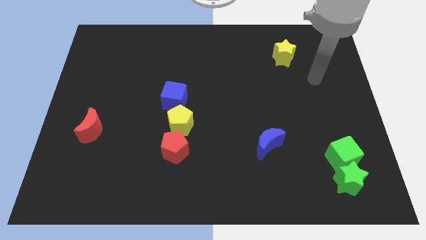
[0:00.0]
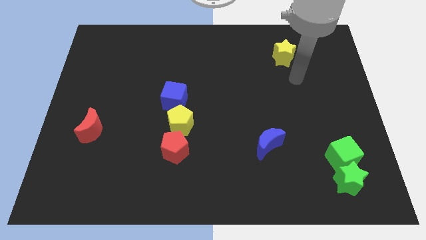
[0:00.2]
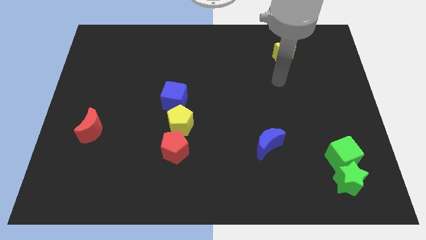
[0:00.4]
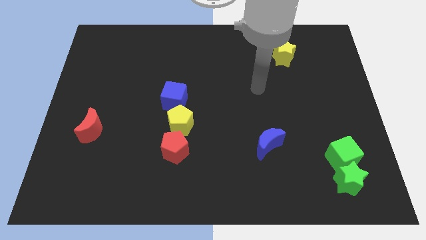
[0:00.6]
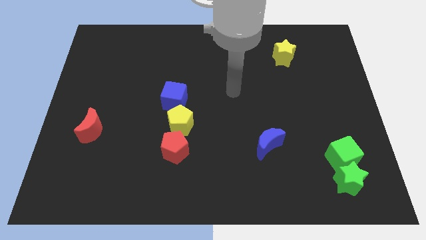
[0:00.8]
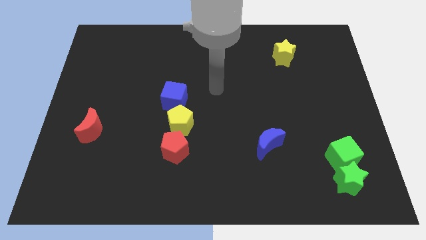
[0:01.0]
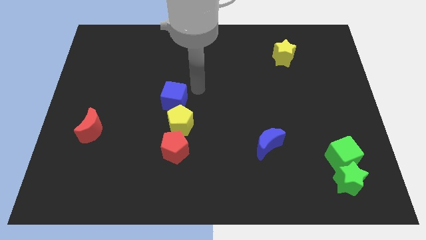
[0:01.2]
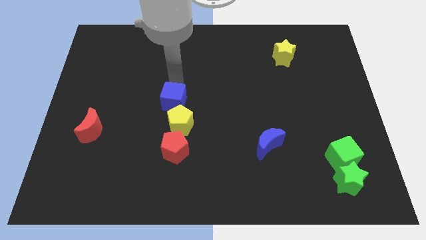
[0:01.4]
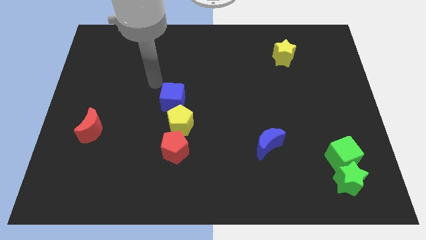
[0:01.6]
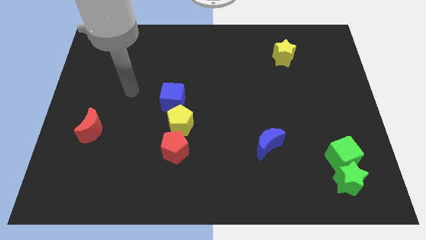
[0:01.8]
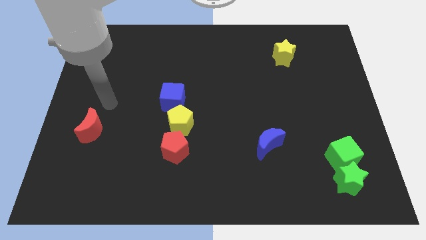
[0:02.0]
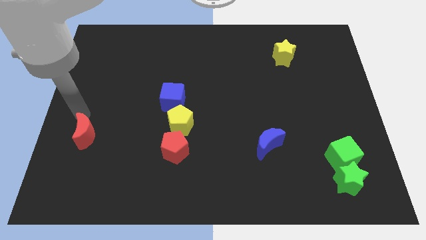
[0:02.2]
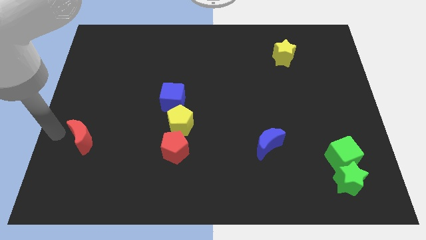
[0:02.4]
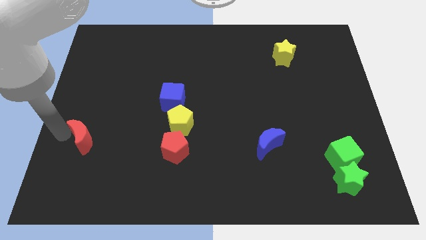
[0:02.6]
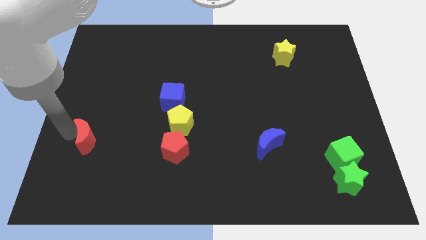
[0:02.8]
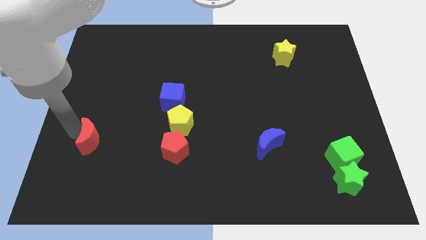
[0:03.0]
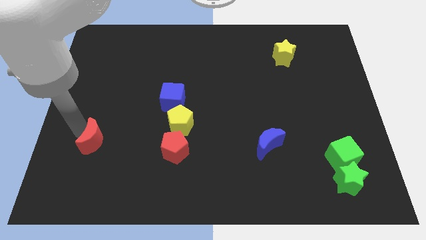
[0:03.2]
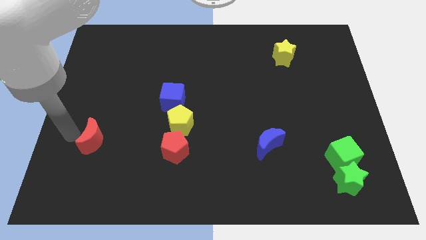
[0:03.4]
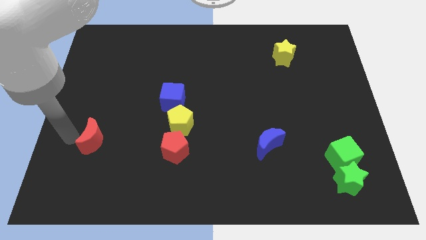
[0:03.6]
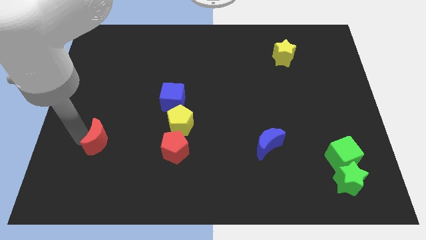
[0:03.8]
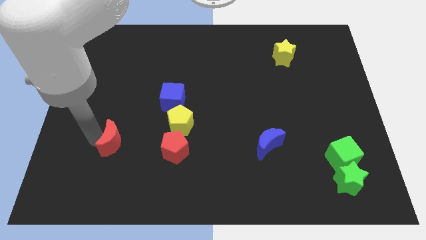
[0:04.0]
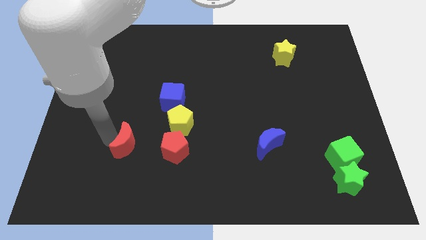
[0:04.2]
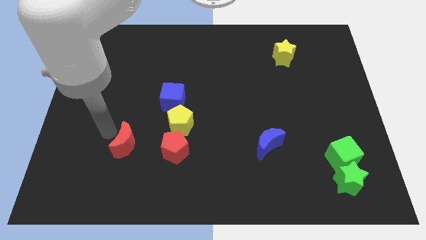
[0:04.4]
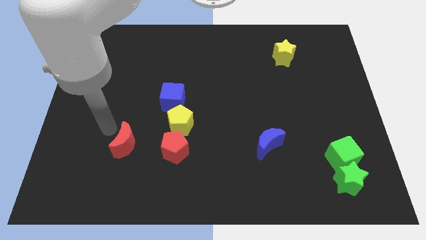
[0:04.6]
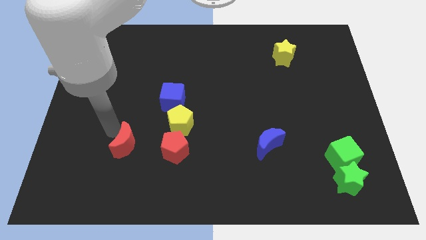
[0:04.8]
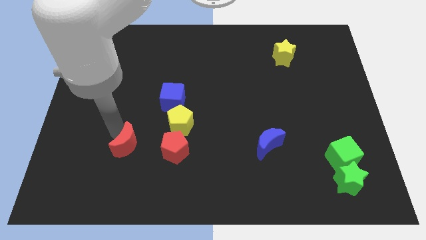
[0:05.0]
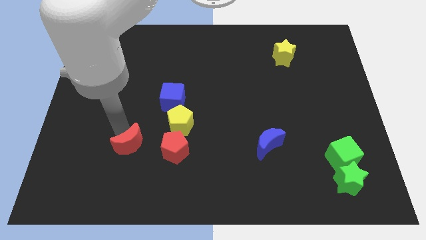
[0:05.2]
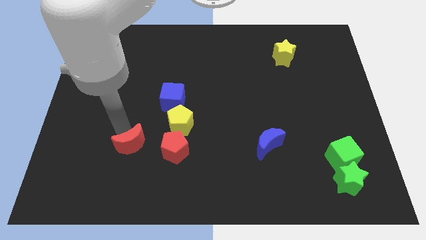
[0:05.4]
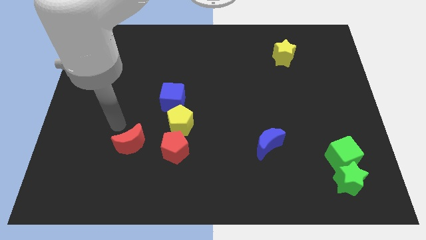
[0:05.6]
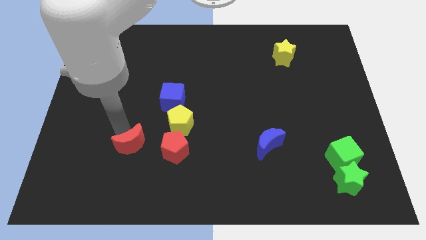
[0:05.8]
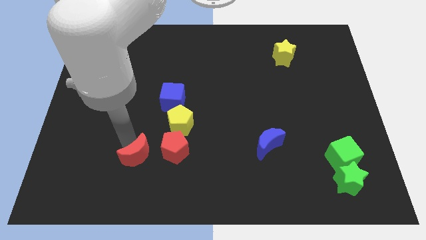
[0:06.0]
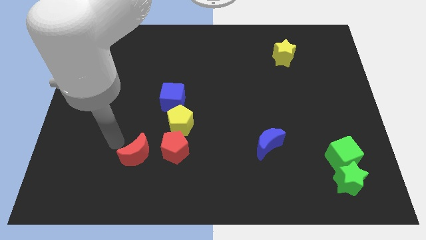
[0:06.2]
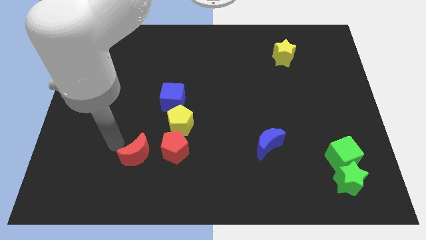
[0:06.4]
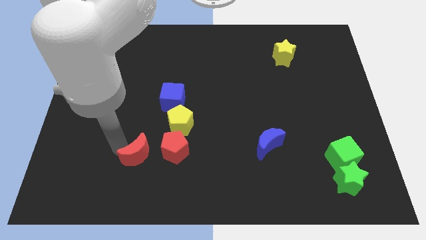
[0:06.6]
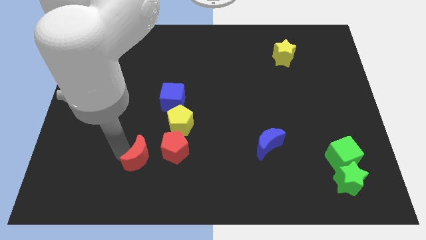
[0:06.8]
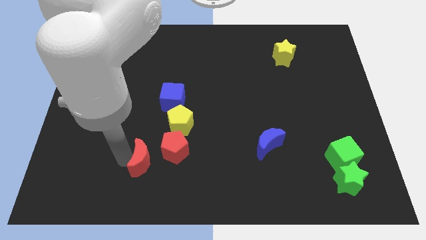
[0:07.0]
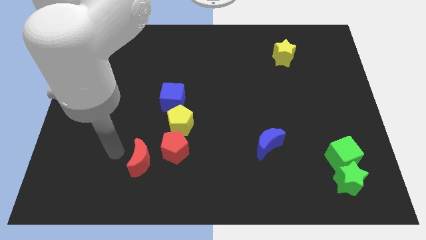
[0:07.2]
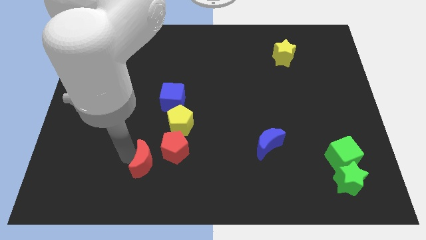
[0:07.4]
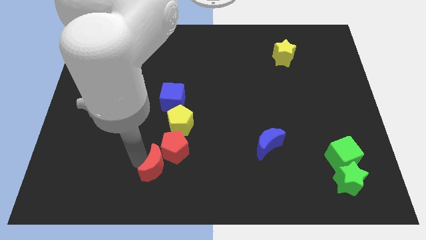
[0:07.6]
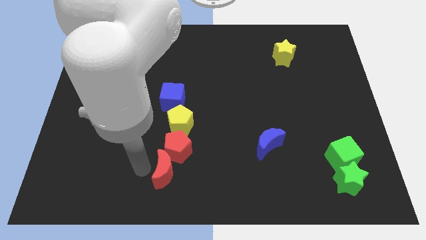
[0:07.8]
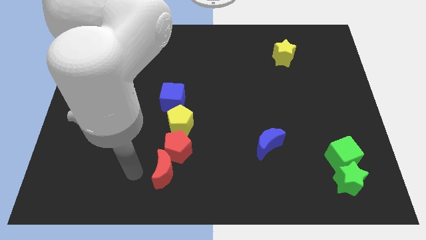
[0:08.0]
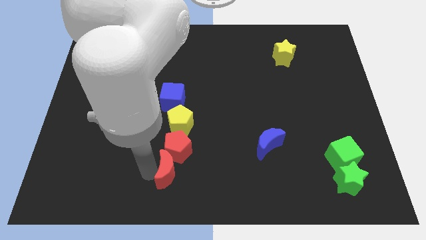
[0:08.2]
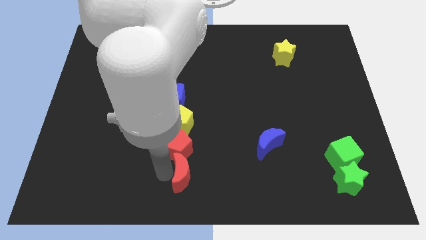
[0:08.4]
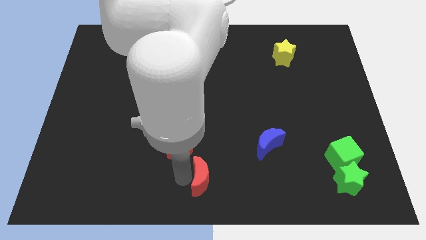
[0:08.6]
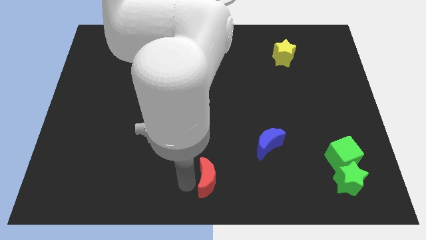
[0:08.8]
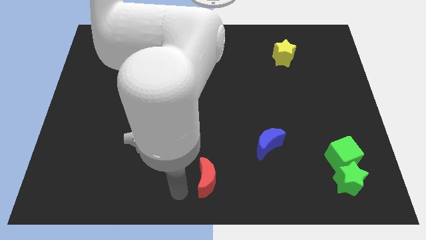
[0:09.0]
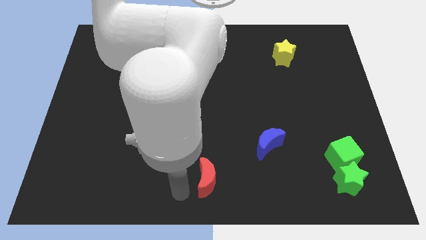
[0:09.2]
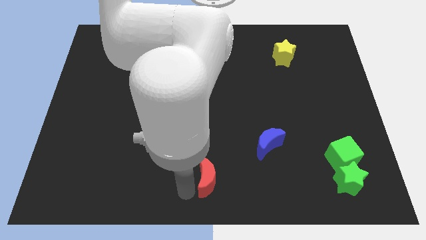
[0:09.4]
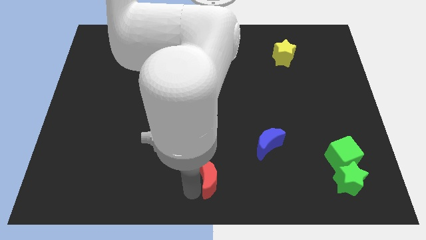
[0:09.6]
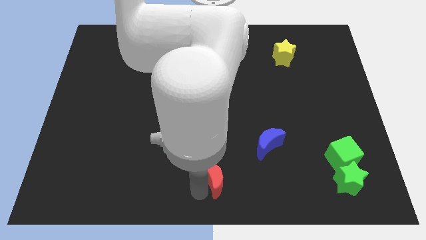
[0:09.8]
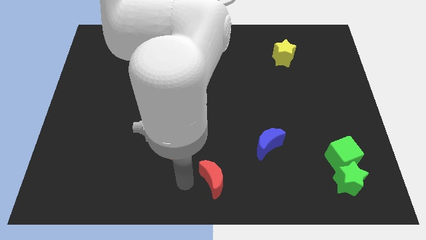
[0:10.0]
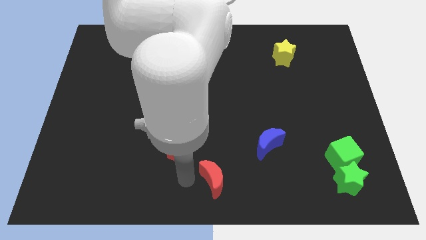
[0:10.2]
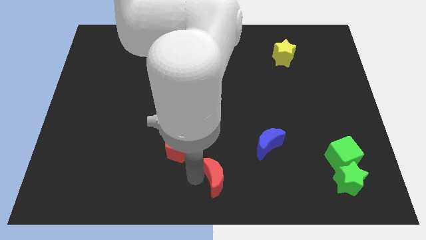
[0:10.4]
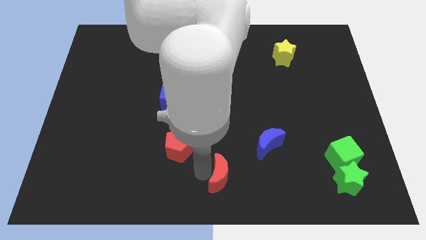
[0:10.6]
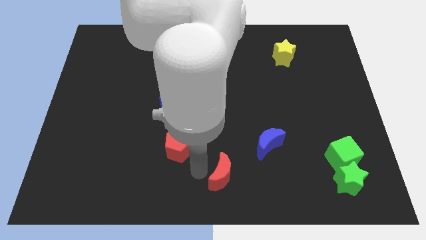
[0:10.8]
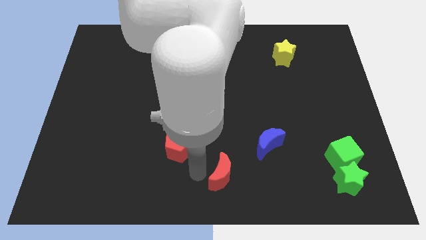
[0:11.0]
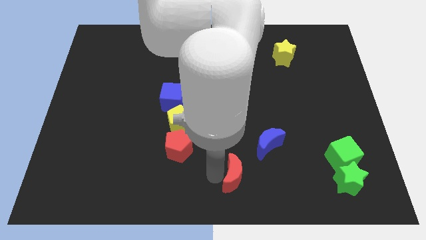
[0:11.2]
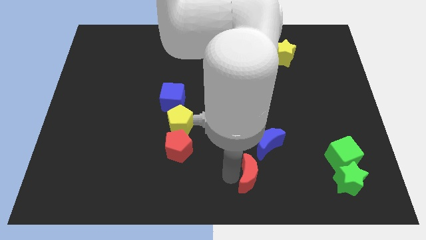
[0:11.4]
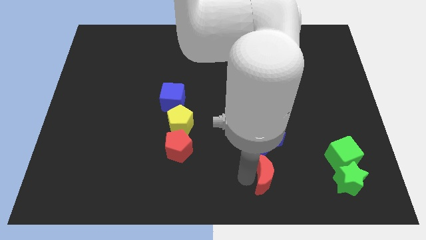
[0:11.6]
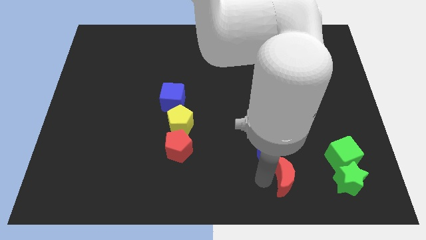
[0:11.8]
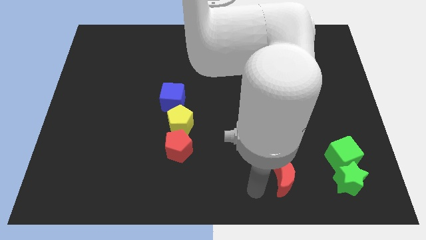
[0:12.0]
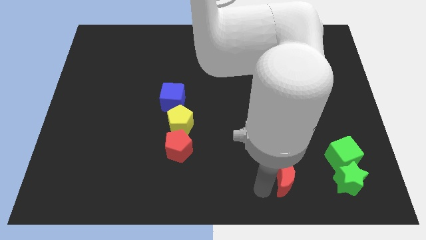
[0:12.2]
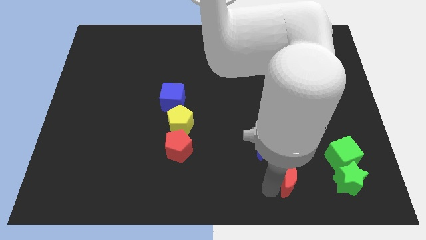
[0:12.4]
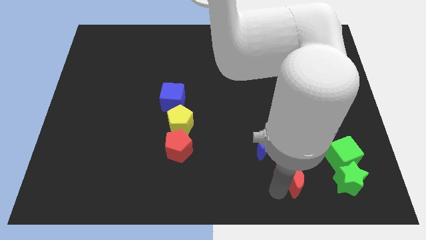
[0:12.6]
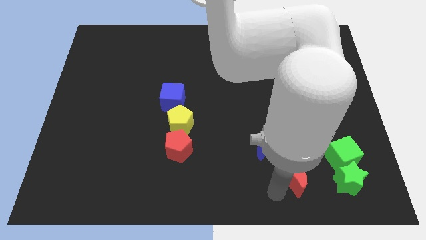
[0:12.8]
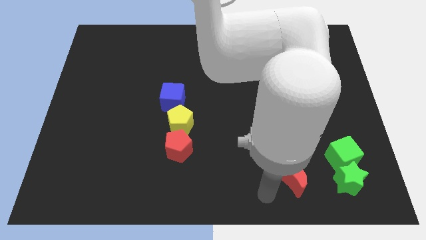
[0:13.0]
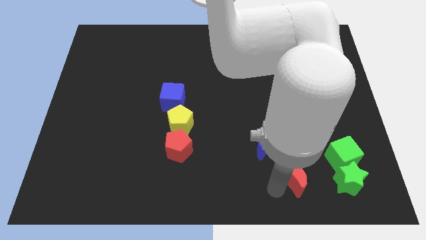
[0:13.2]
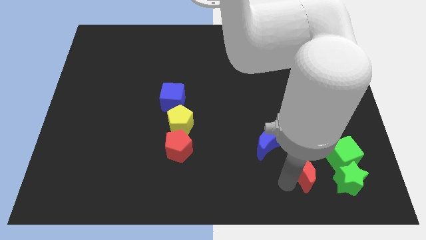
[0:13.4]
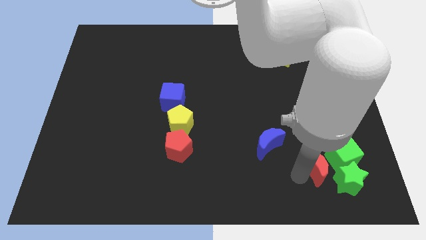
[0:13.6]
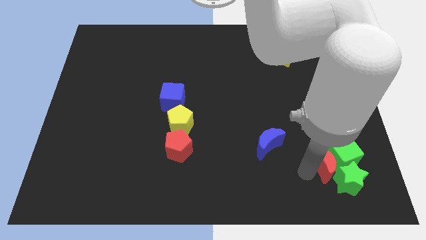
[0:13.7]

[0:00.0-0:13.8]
move the red moon towards the green cube

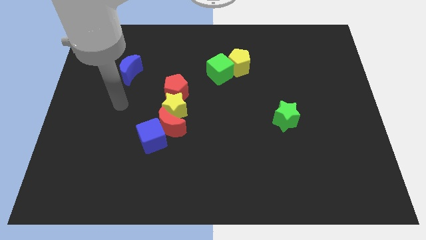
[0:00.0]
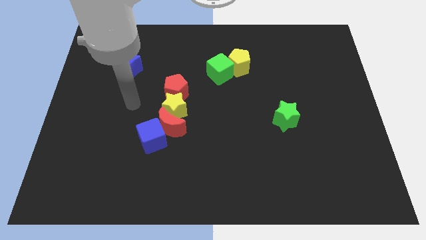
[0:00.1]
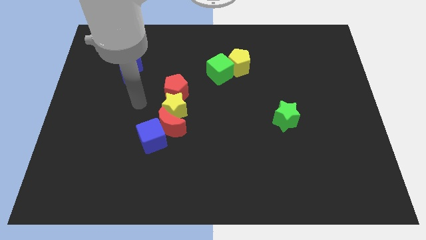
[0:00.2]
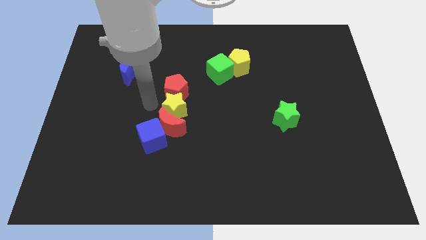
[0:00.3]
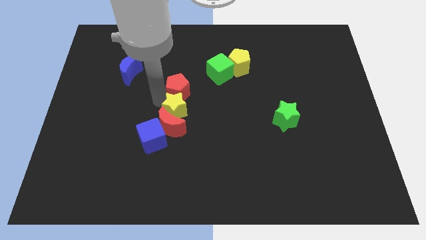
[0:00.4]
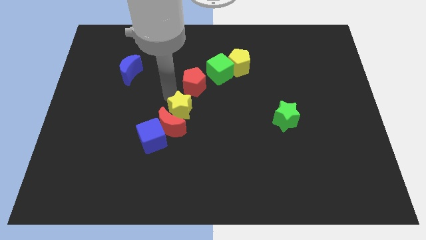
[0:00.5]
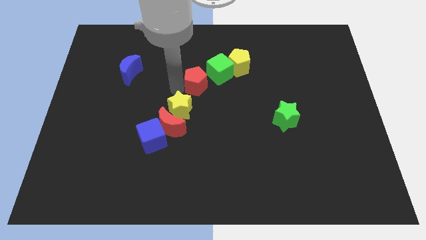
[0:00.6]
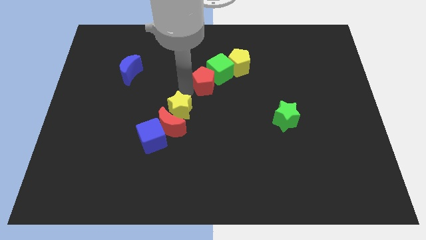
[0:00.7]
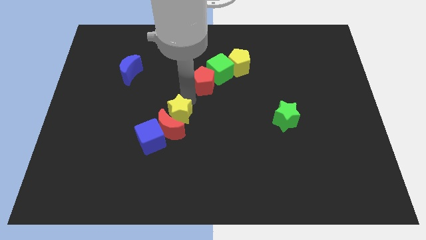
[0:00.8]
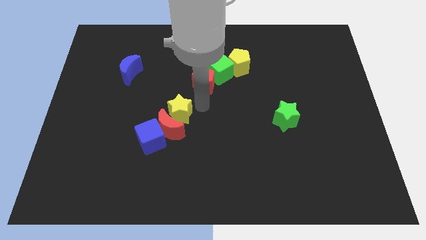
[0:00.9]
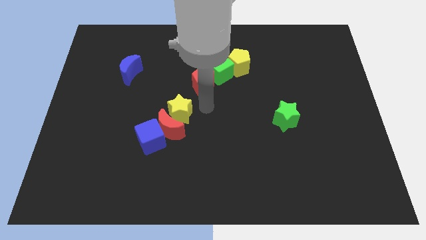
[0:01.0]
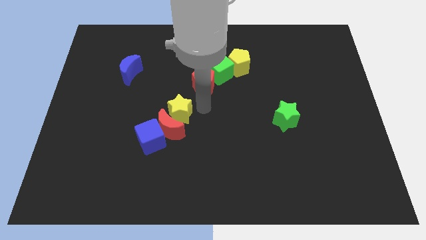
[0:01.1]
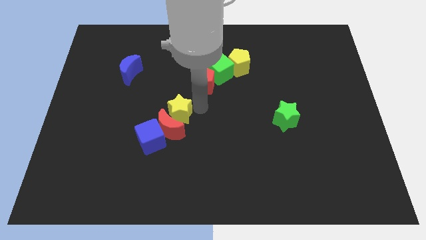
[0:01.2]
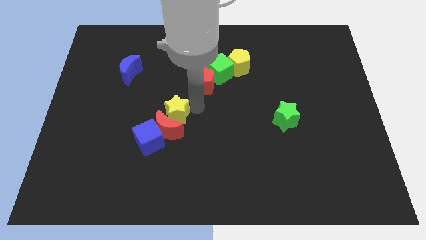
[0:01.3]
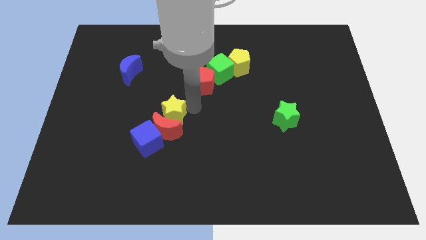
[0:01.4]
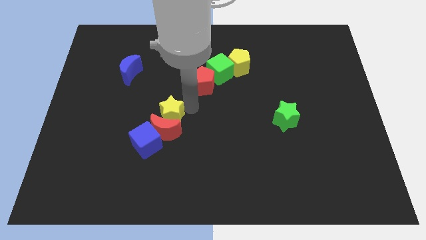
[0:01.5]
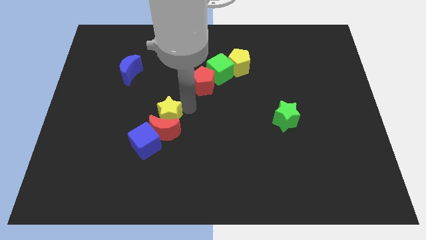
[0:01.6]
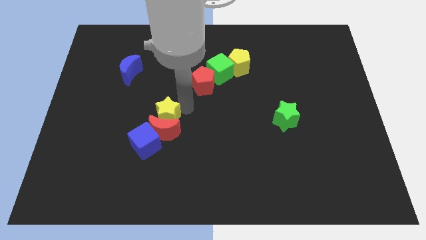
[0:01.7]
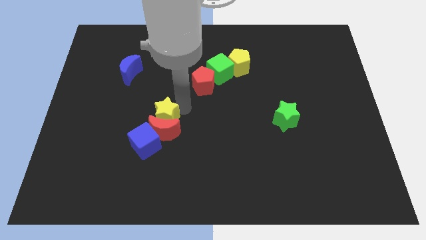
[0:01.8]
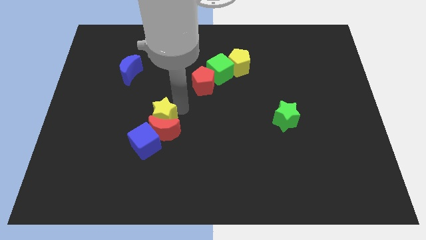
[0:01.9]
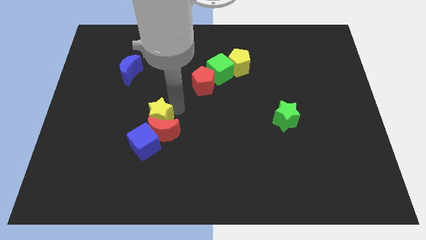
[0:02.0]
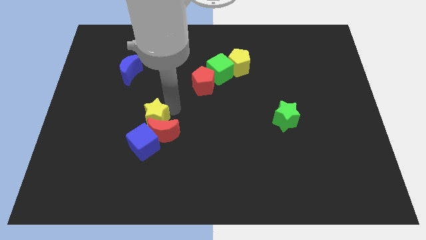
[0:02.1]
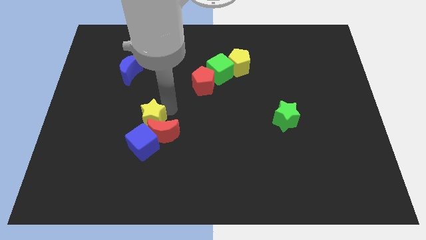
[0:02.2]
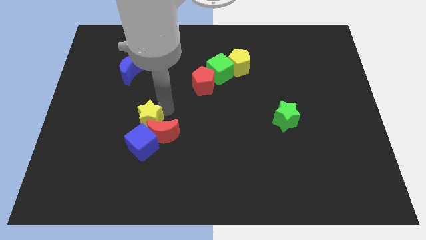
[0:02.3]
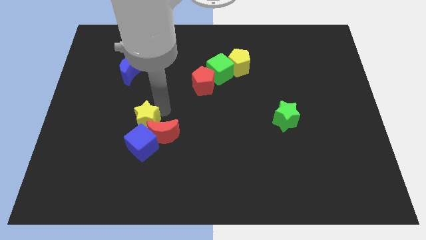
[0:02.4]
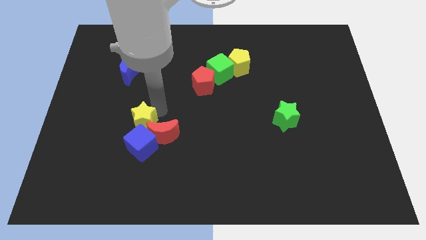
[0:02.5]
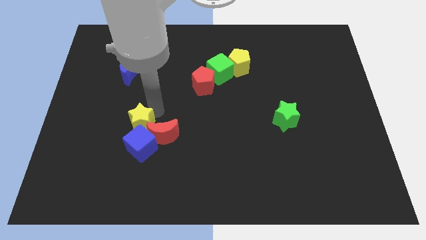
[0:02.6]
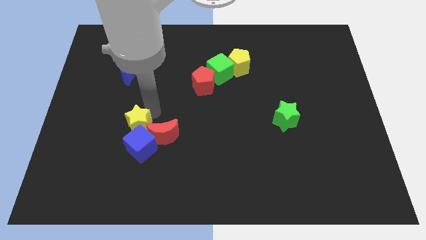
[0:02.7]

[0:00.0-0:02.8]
slide the yellow star next to the blue cube
